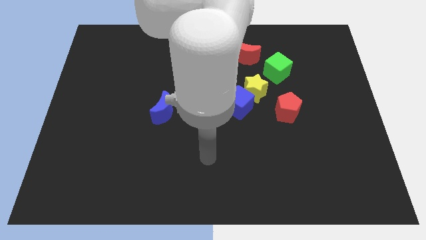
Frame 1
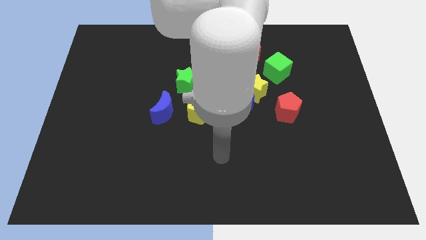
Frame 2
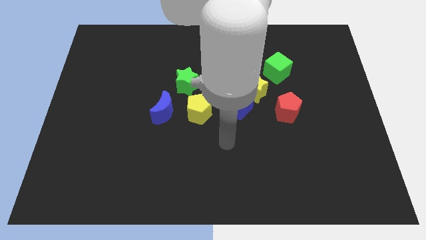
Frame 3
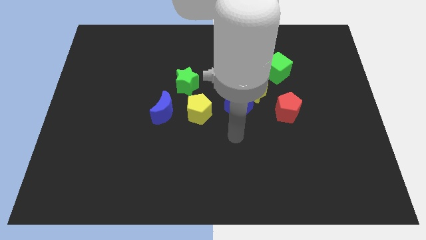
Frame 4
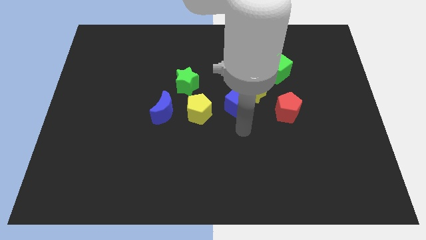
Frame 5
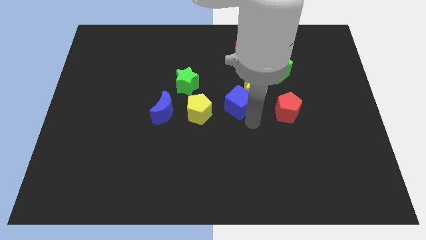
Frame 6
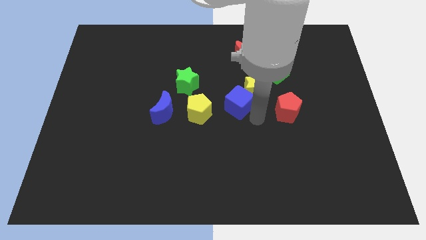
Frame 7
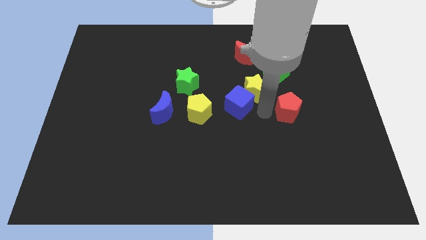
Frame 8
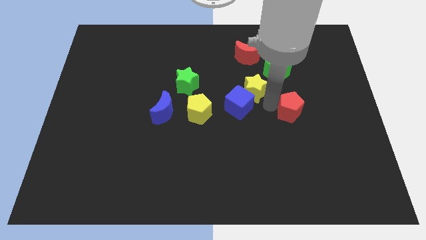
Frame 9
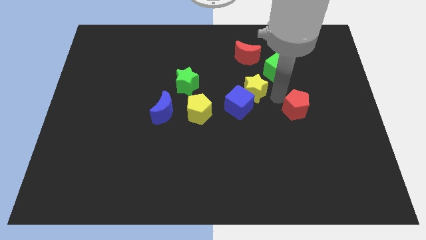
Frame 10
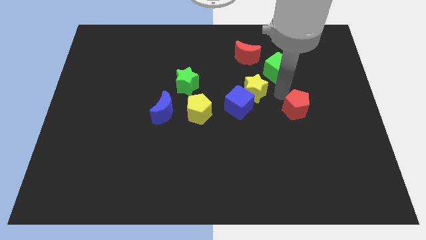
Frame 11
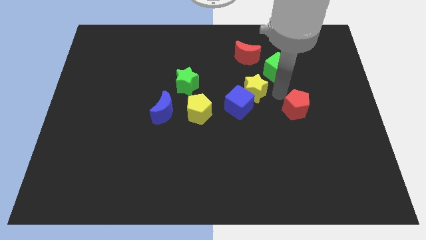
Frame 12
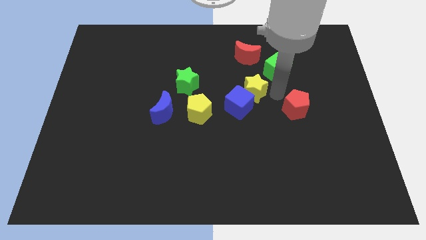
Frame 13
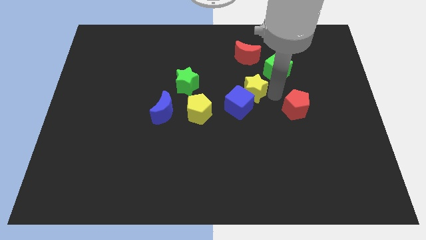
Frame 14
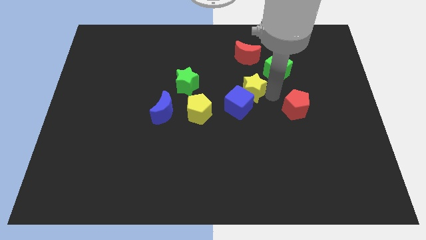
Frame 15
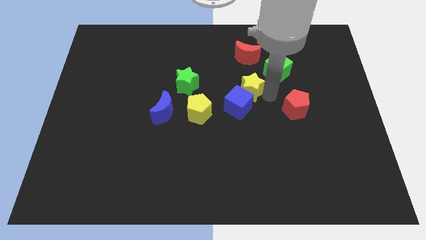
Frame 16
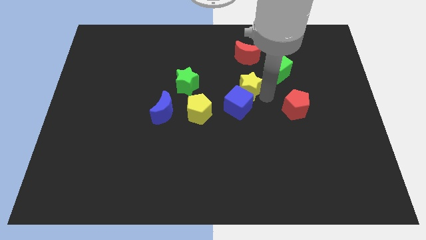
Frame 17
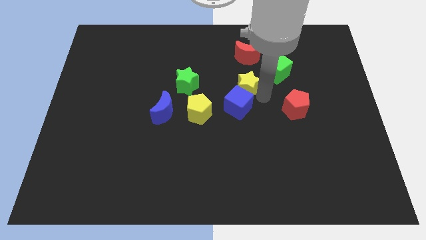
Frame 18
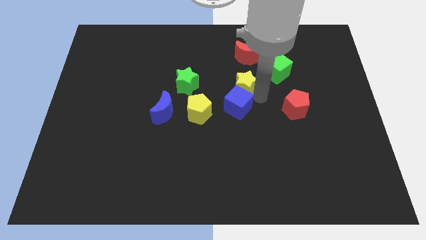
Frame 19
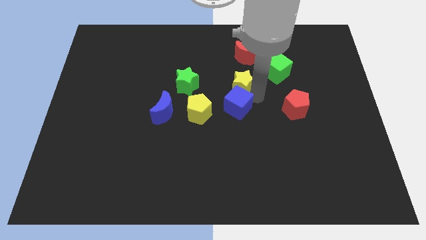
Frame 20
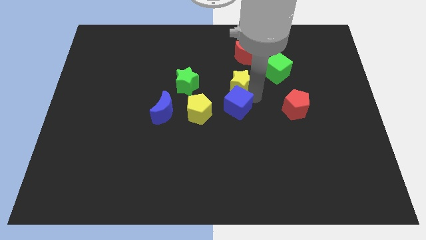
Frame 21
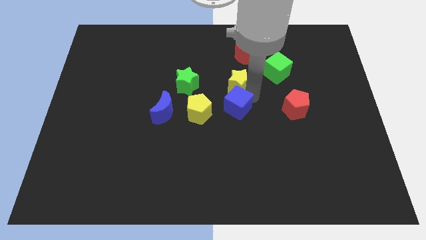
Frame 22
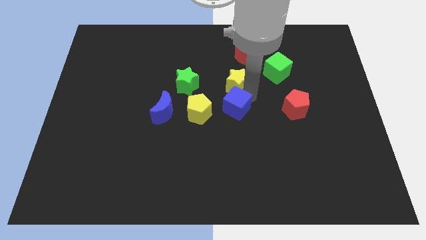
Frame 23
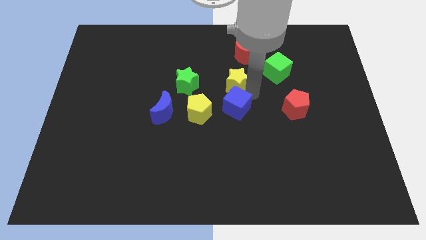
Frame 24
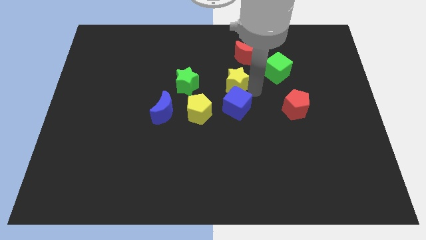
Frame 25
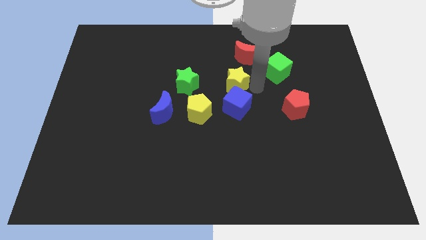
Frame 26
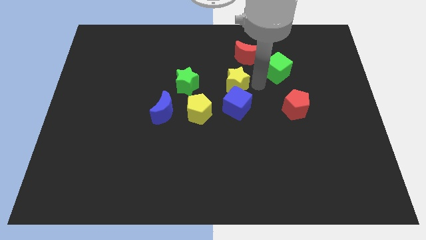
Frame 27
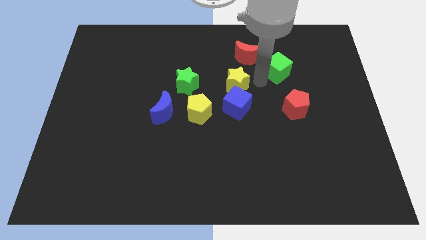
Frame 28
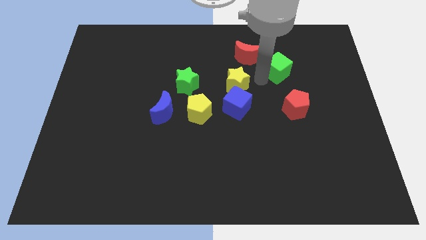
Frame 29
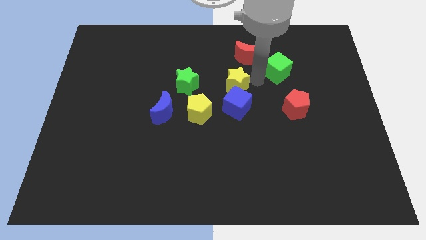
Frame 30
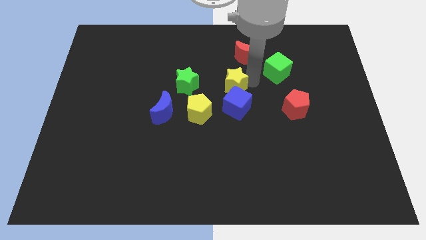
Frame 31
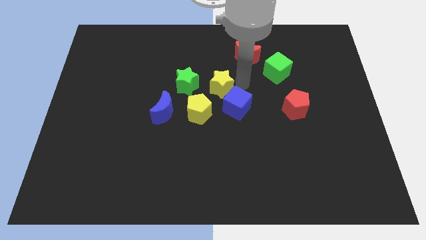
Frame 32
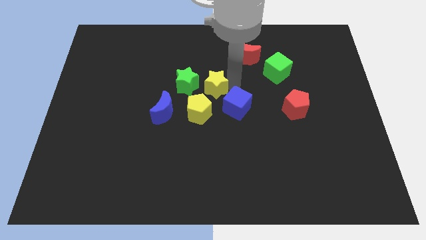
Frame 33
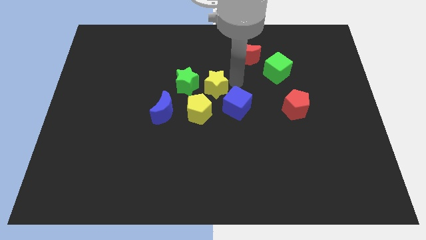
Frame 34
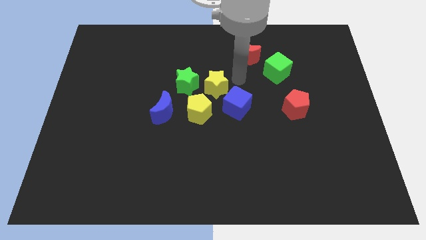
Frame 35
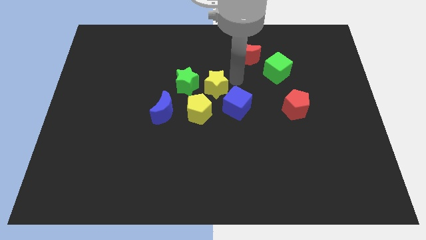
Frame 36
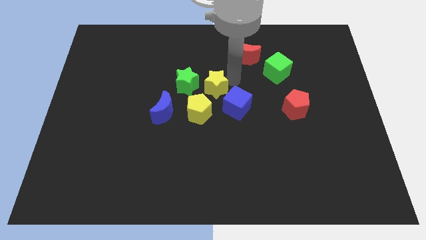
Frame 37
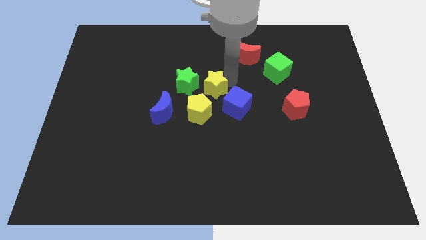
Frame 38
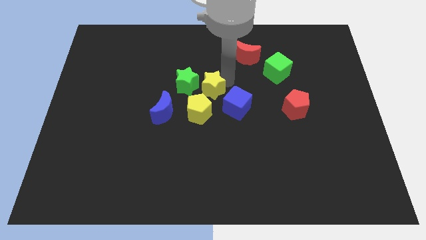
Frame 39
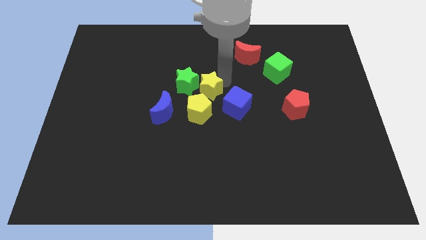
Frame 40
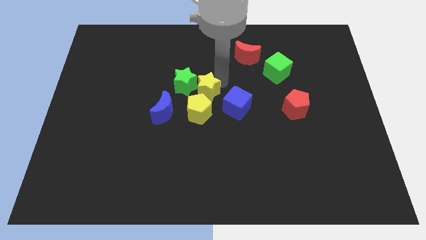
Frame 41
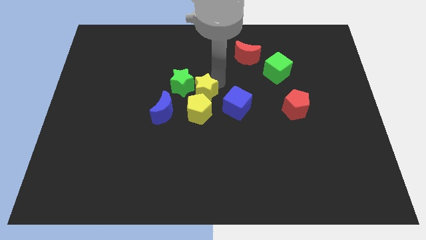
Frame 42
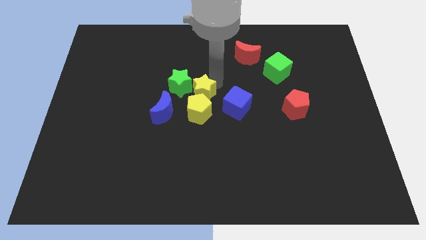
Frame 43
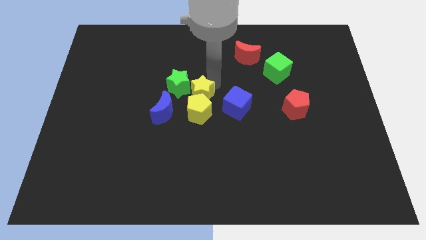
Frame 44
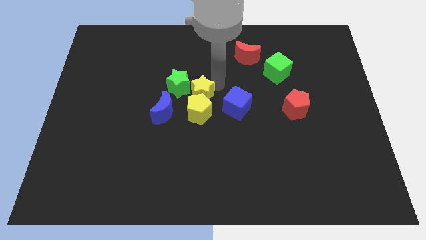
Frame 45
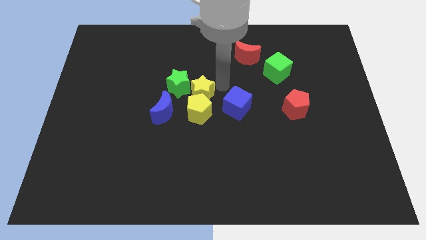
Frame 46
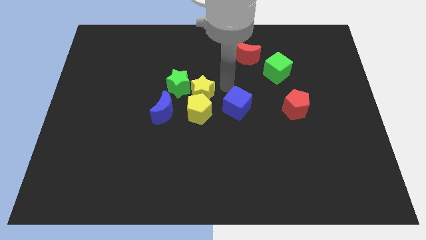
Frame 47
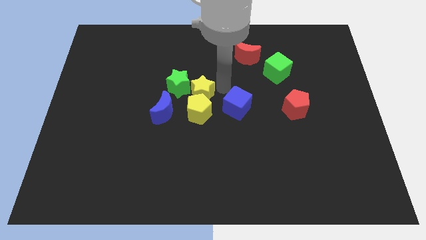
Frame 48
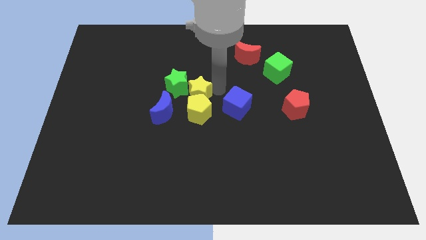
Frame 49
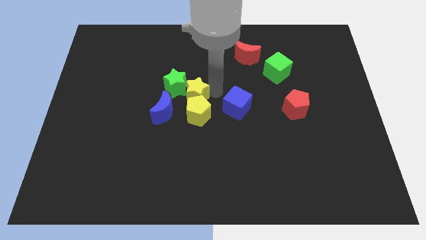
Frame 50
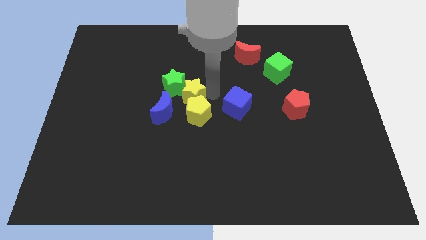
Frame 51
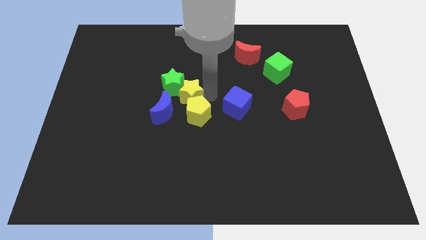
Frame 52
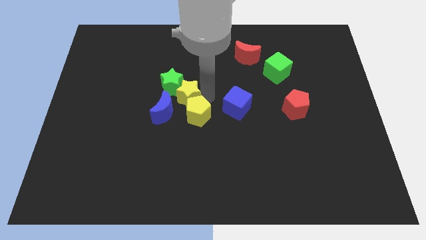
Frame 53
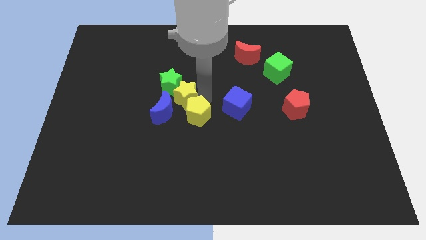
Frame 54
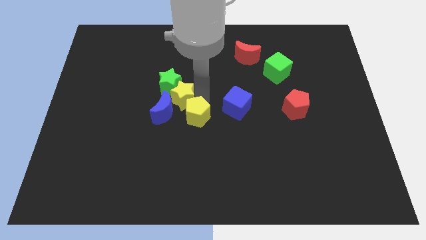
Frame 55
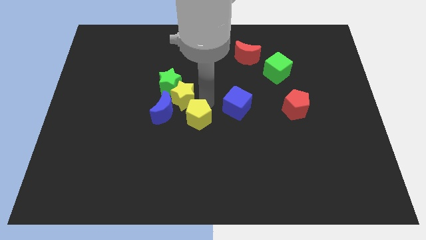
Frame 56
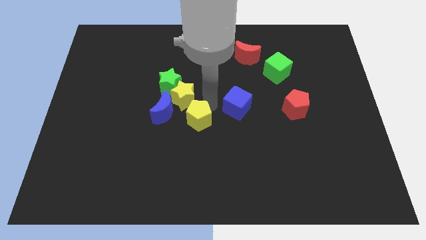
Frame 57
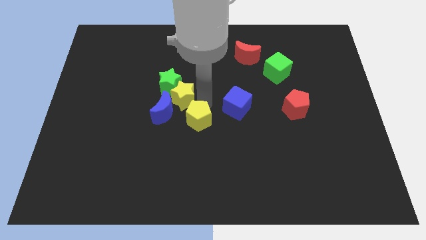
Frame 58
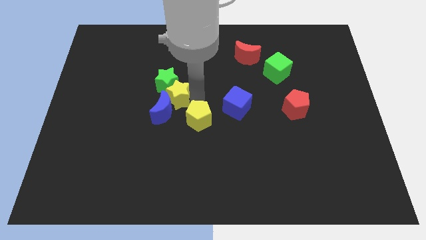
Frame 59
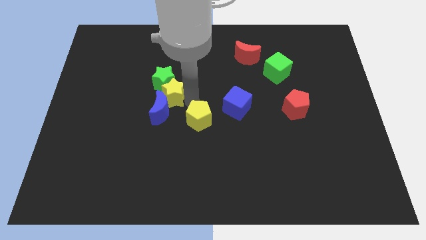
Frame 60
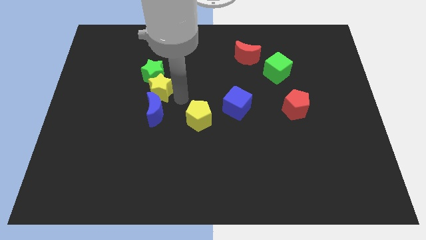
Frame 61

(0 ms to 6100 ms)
move the yellow star to the left

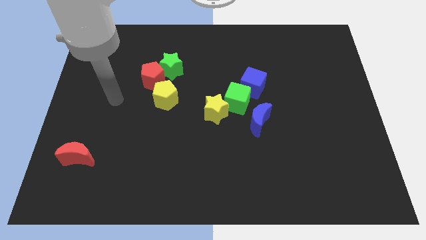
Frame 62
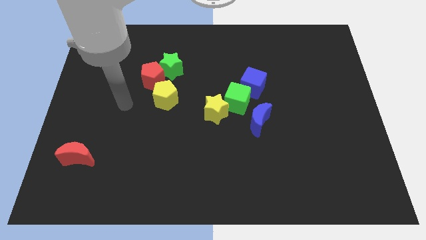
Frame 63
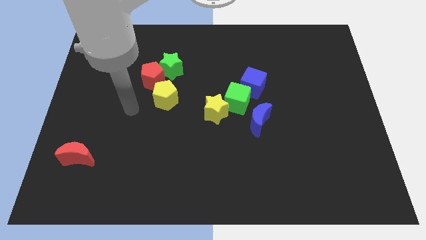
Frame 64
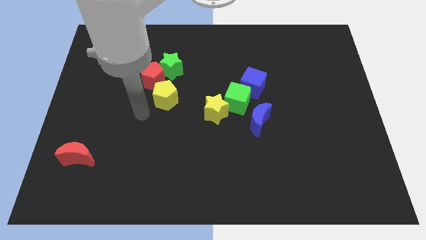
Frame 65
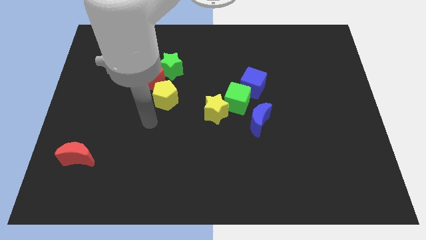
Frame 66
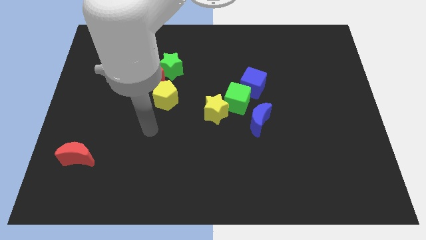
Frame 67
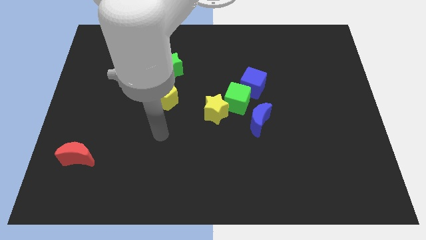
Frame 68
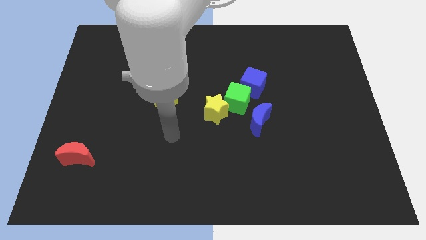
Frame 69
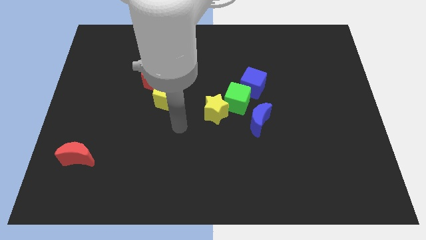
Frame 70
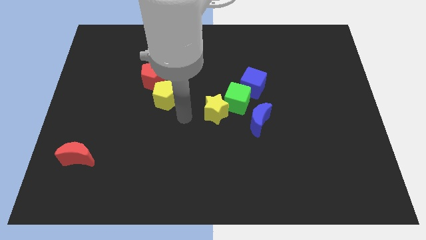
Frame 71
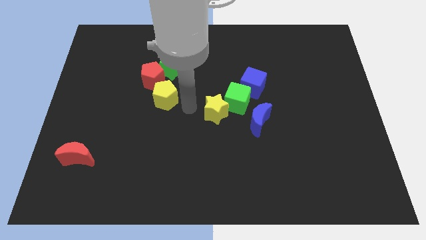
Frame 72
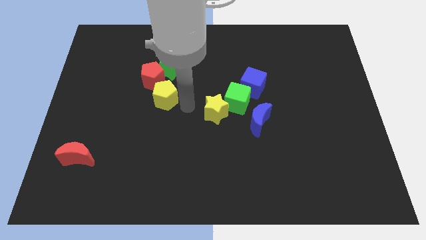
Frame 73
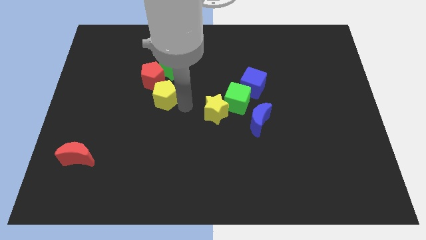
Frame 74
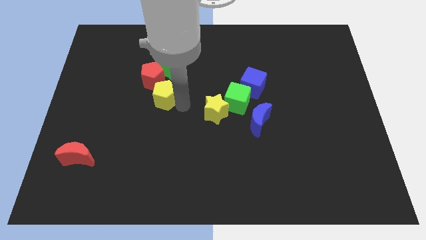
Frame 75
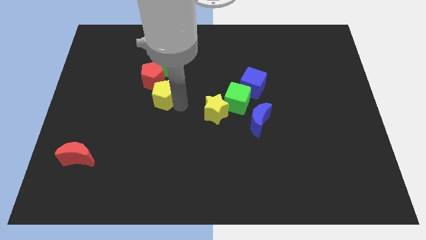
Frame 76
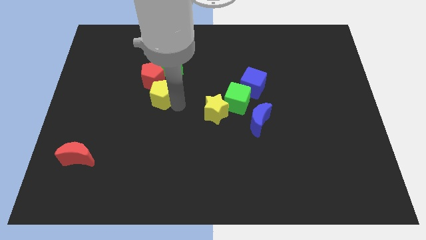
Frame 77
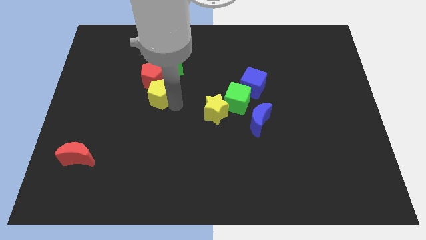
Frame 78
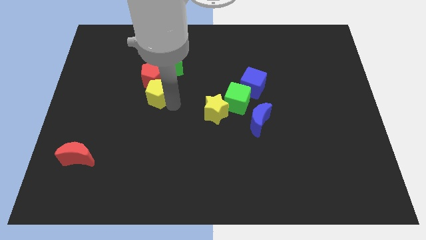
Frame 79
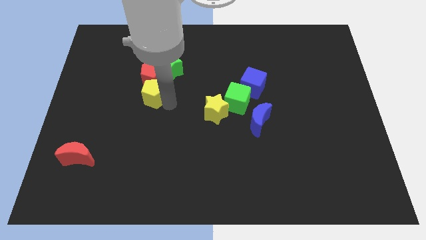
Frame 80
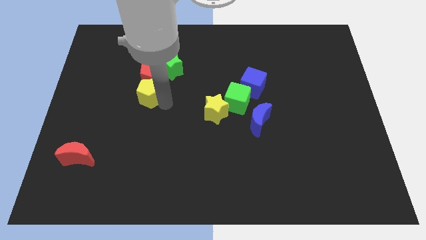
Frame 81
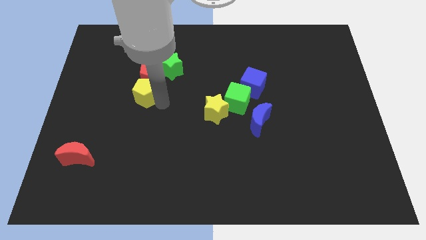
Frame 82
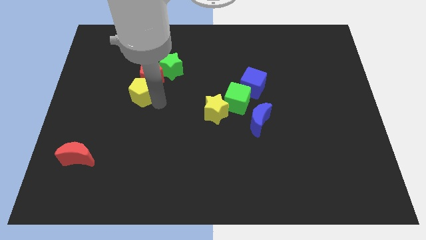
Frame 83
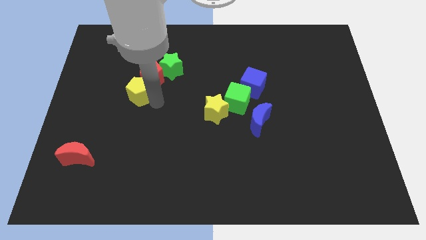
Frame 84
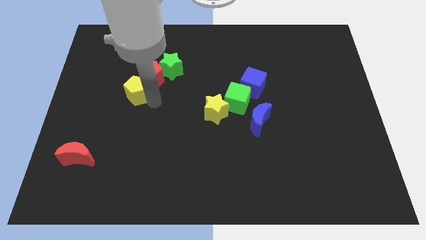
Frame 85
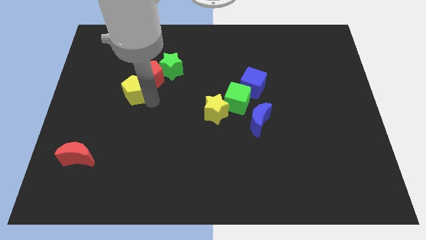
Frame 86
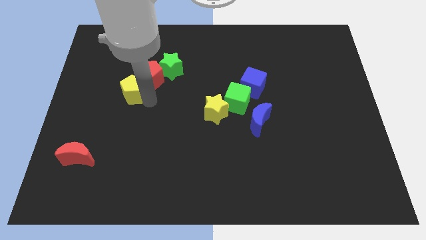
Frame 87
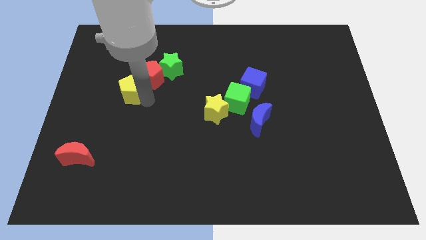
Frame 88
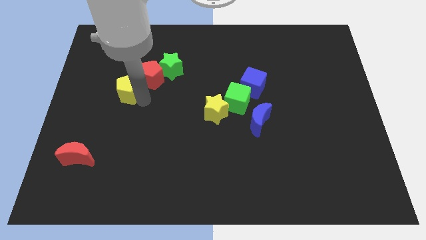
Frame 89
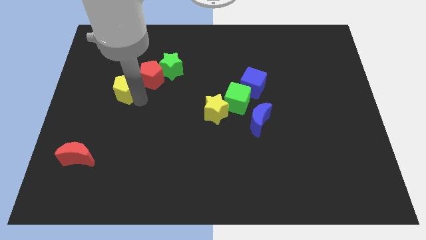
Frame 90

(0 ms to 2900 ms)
slightly move the yellow pentagon upwards and then left
